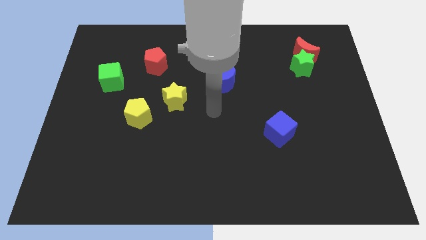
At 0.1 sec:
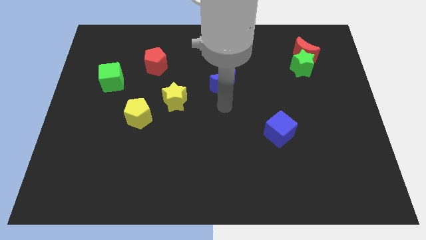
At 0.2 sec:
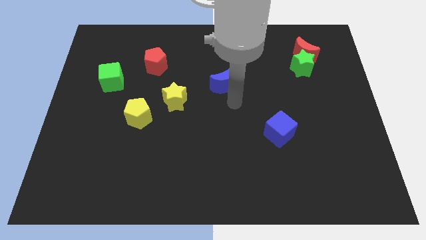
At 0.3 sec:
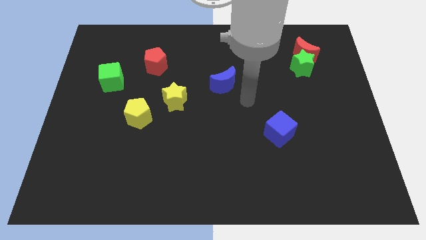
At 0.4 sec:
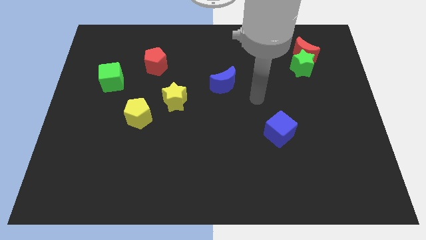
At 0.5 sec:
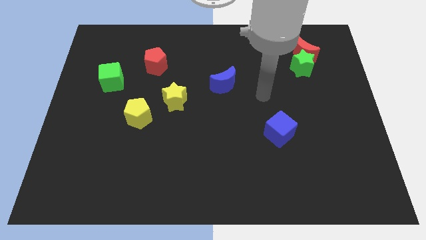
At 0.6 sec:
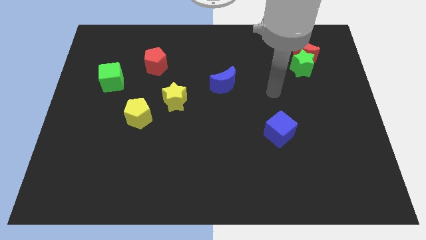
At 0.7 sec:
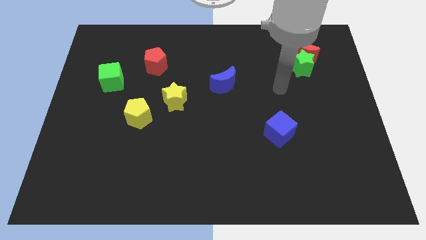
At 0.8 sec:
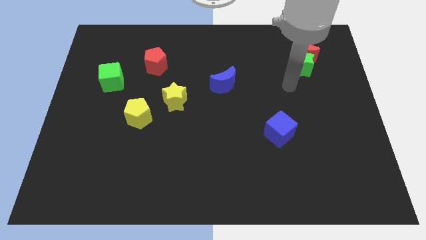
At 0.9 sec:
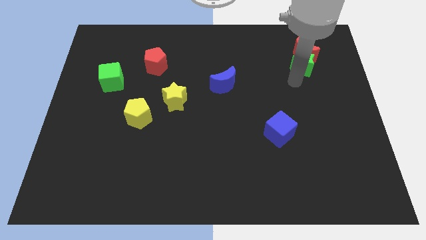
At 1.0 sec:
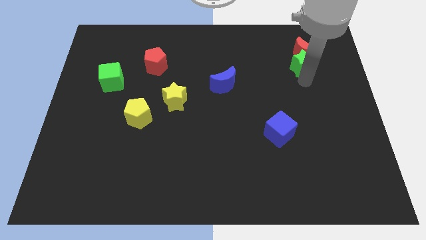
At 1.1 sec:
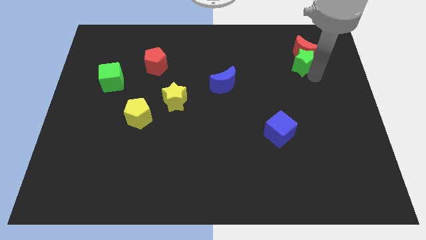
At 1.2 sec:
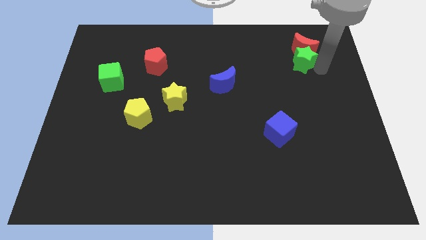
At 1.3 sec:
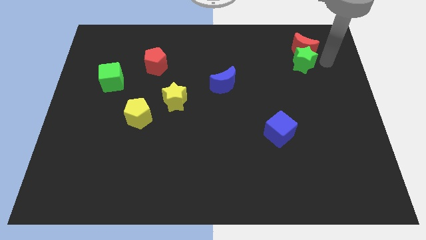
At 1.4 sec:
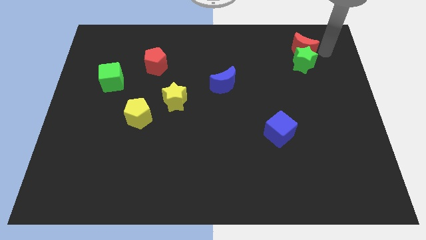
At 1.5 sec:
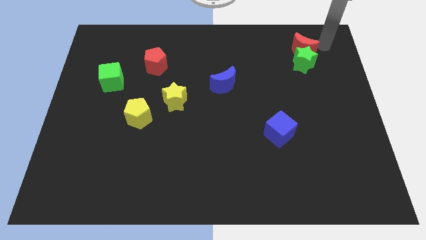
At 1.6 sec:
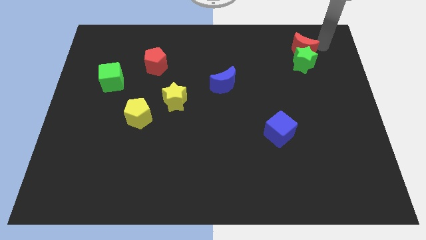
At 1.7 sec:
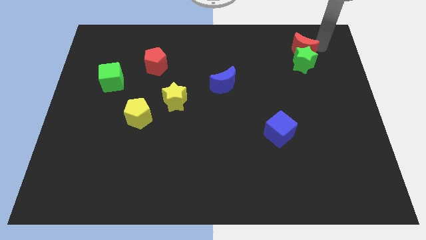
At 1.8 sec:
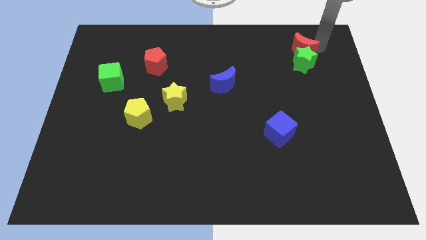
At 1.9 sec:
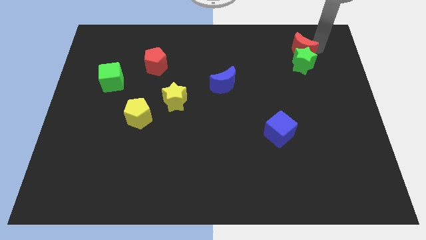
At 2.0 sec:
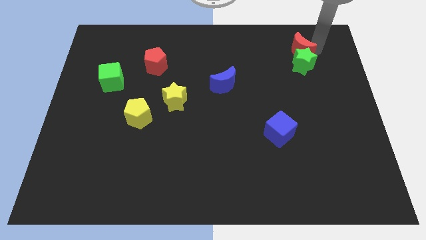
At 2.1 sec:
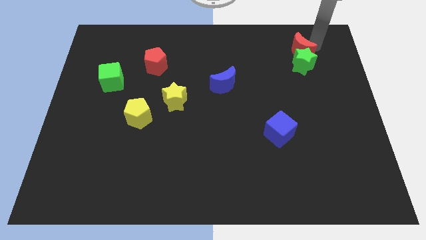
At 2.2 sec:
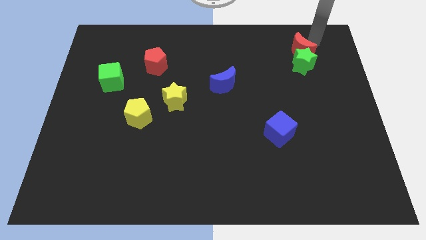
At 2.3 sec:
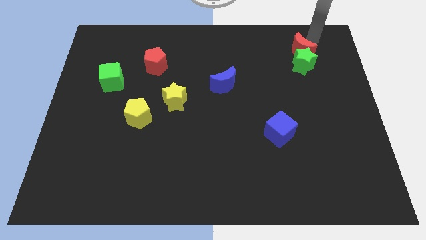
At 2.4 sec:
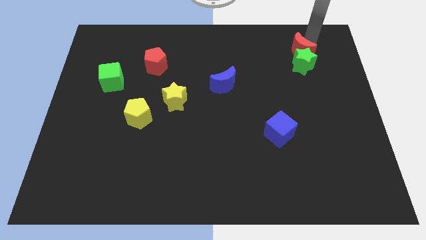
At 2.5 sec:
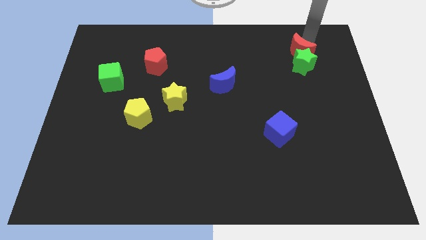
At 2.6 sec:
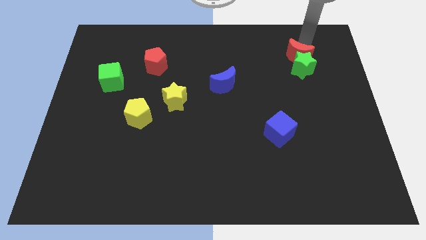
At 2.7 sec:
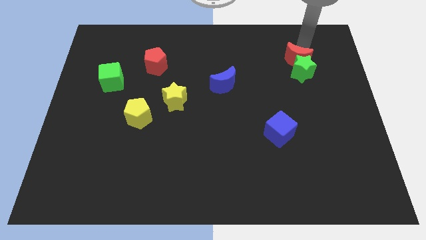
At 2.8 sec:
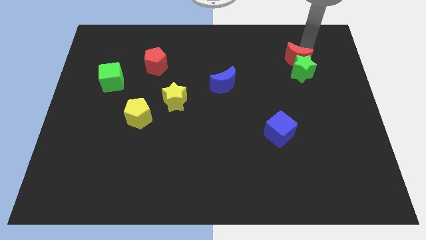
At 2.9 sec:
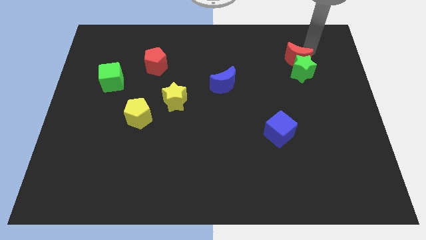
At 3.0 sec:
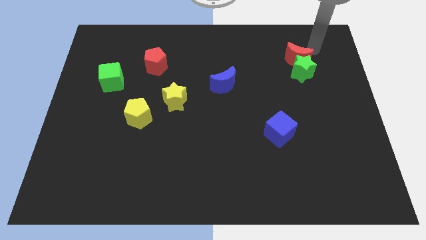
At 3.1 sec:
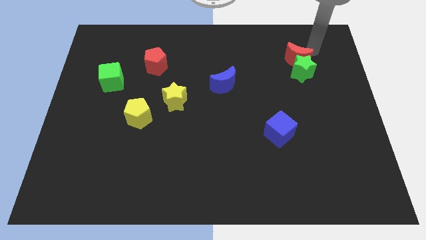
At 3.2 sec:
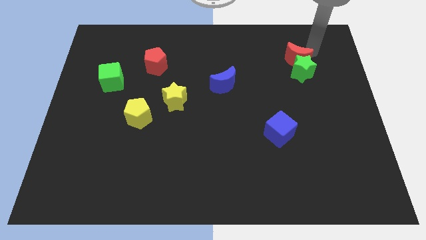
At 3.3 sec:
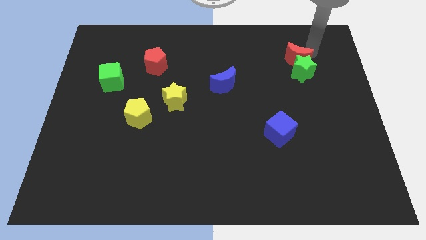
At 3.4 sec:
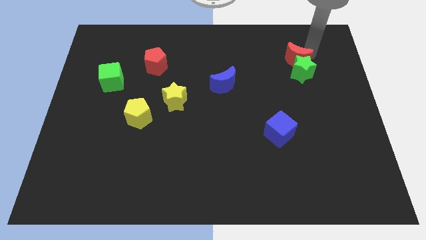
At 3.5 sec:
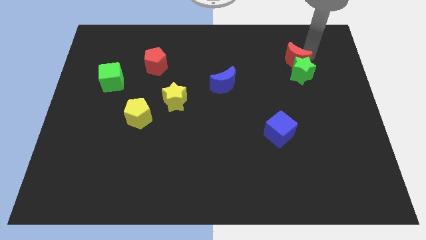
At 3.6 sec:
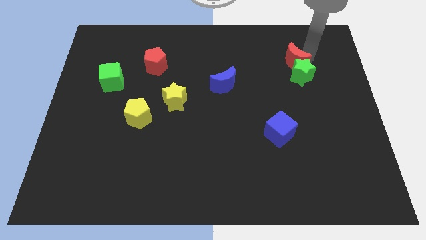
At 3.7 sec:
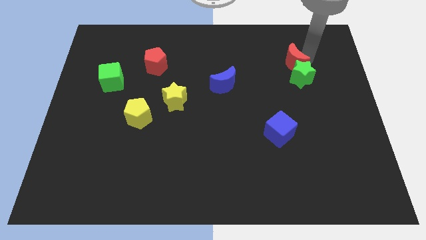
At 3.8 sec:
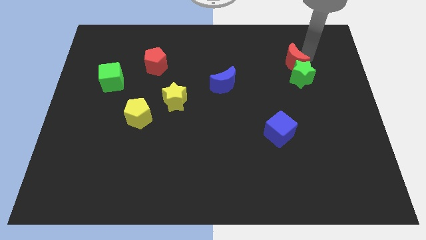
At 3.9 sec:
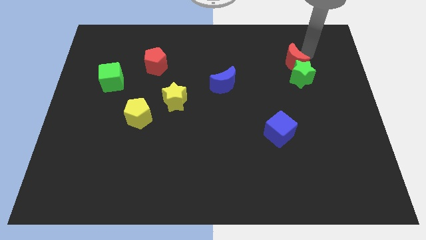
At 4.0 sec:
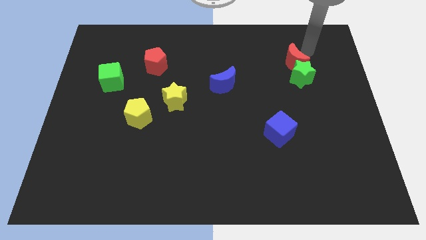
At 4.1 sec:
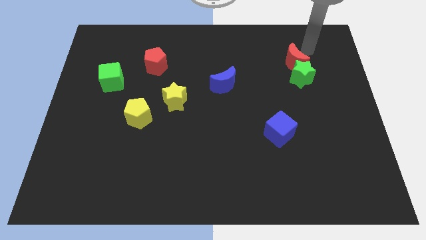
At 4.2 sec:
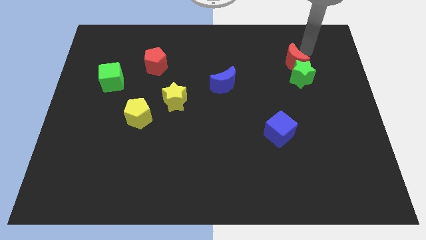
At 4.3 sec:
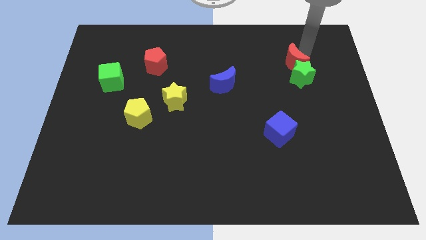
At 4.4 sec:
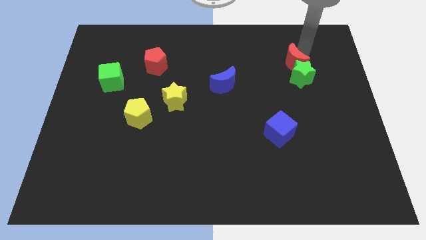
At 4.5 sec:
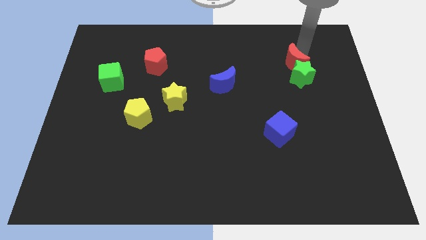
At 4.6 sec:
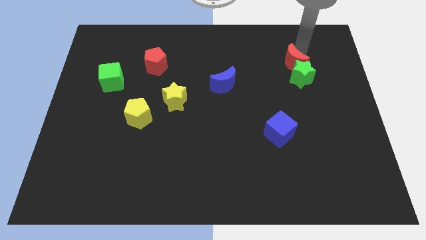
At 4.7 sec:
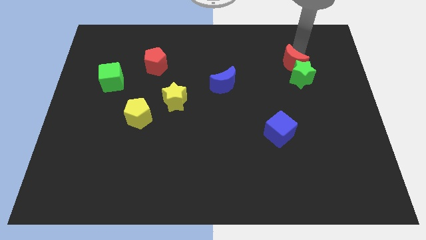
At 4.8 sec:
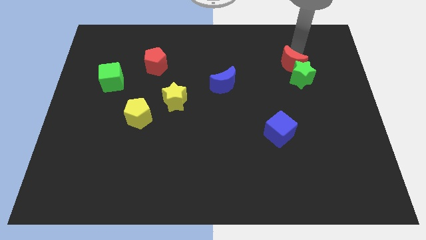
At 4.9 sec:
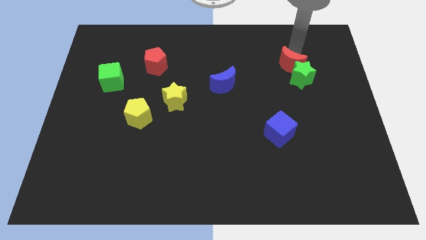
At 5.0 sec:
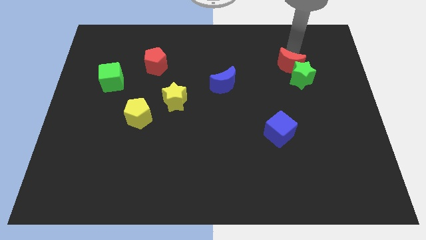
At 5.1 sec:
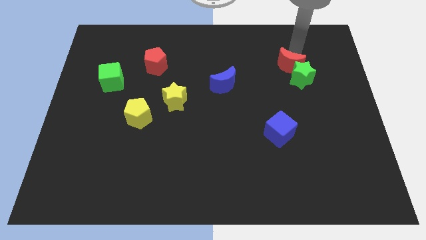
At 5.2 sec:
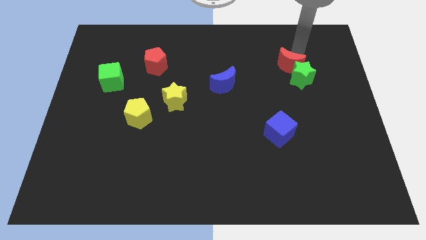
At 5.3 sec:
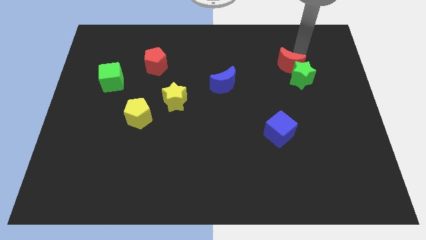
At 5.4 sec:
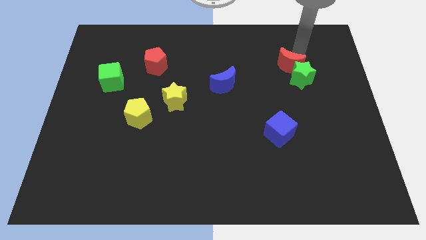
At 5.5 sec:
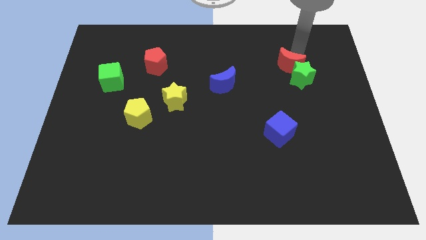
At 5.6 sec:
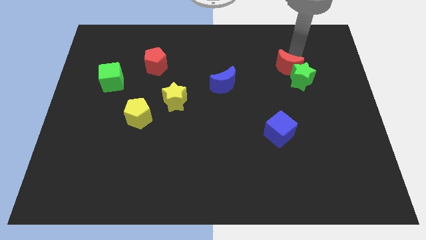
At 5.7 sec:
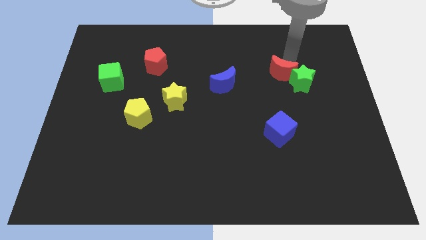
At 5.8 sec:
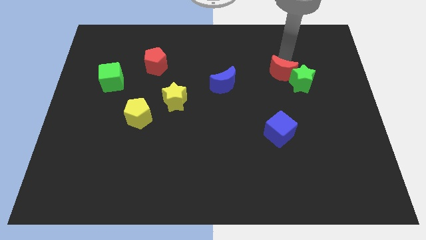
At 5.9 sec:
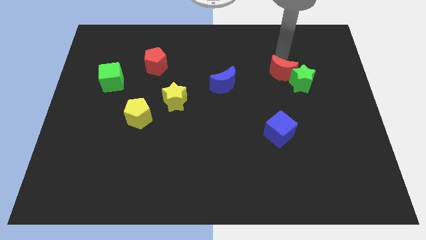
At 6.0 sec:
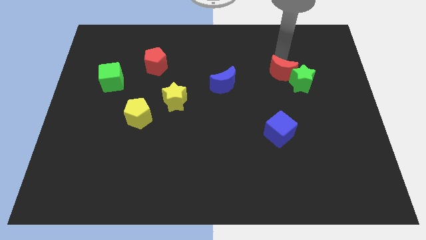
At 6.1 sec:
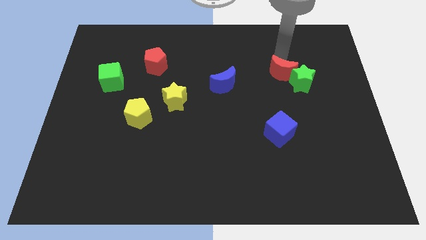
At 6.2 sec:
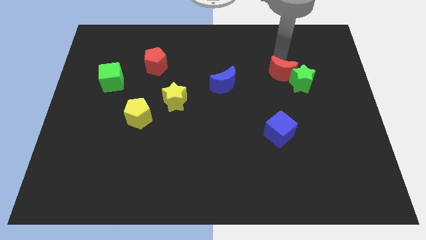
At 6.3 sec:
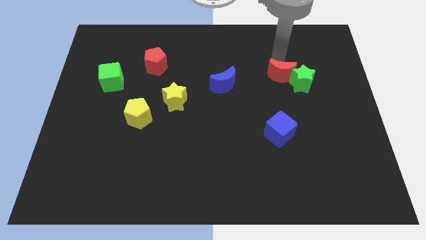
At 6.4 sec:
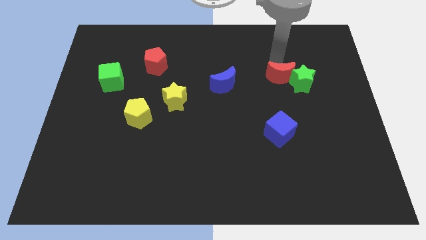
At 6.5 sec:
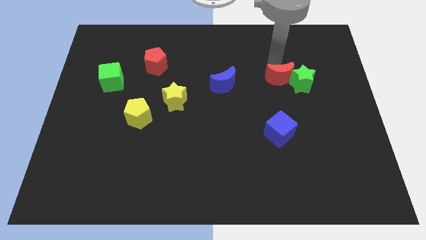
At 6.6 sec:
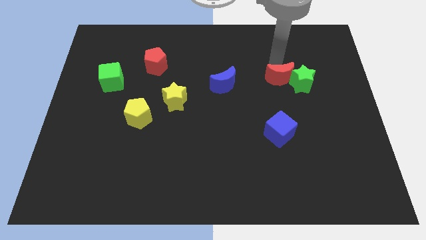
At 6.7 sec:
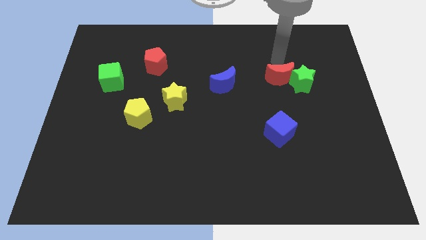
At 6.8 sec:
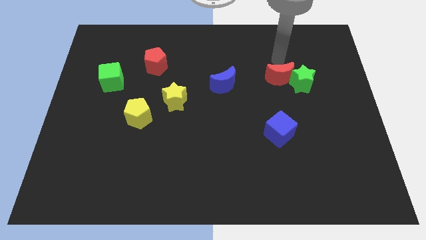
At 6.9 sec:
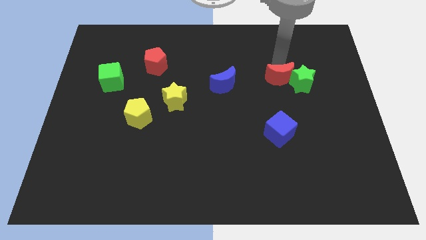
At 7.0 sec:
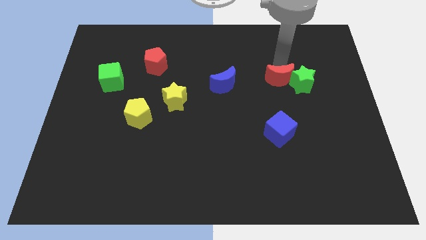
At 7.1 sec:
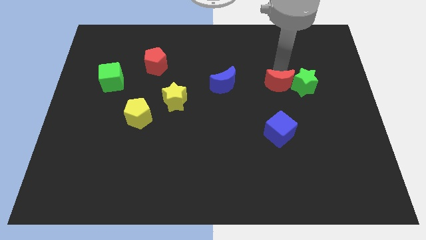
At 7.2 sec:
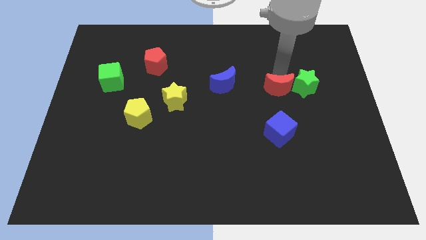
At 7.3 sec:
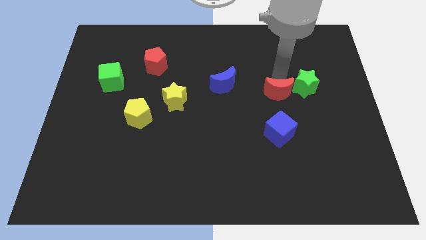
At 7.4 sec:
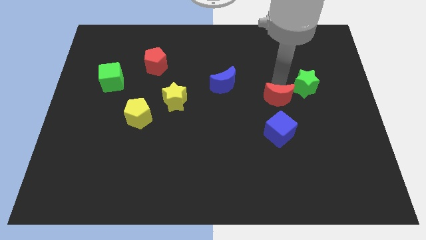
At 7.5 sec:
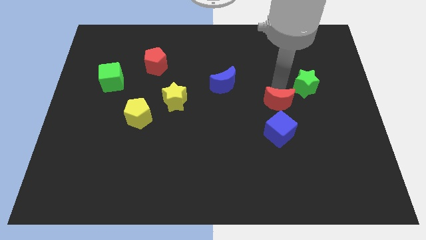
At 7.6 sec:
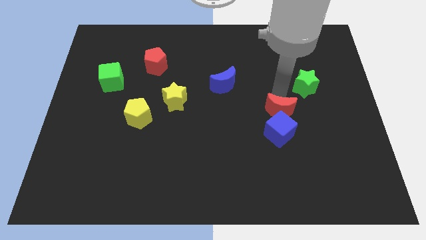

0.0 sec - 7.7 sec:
push the red moon to the blue cube
